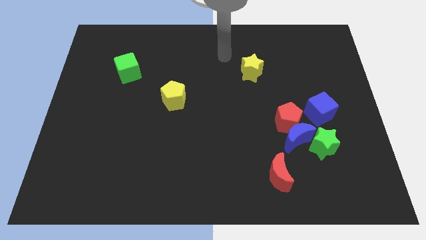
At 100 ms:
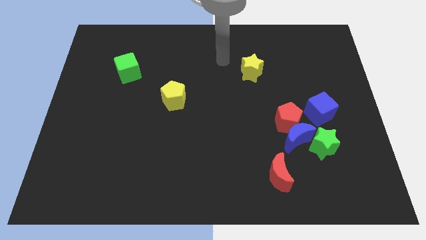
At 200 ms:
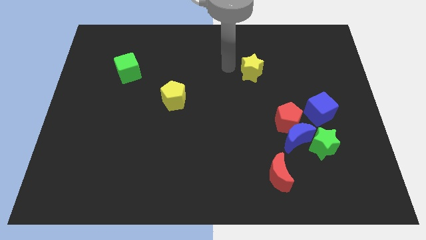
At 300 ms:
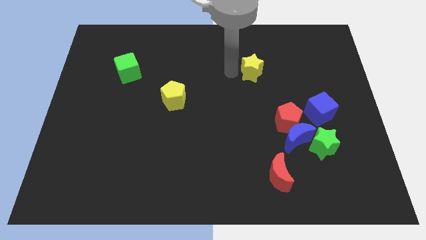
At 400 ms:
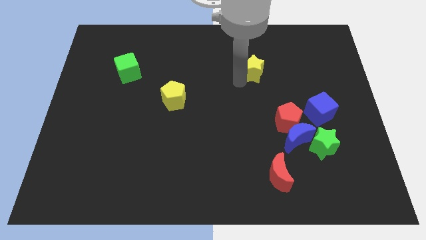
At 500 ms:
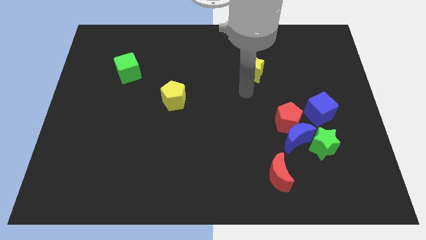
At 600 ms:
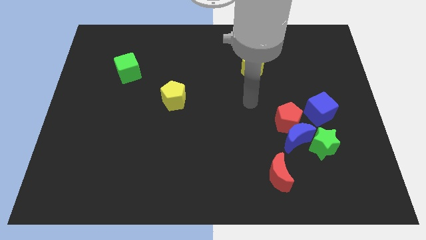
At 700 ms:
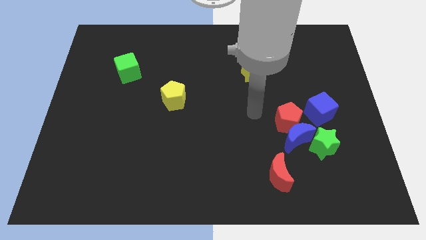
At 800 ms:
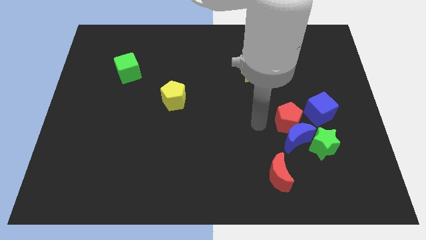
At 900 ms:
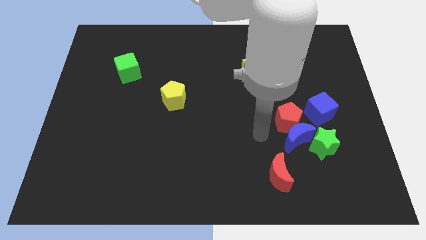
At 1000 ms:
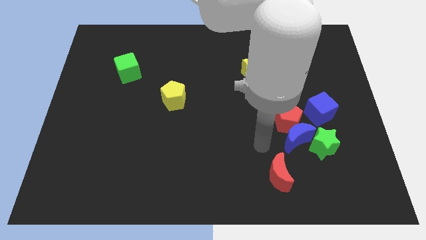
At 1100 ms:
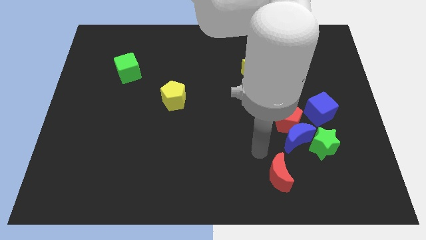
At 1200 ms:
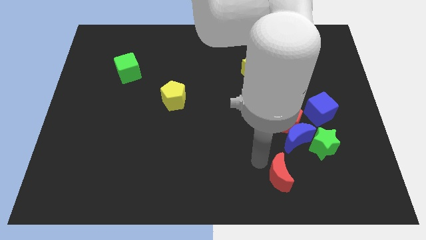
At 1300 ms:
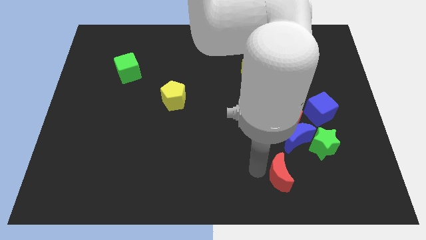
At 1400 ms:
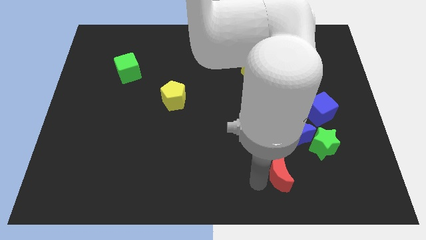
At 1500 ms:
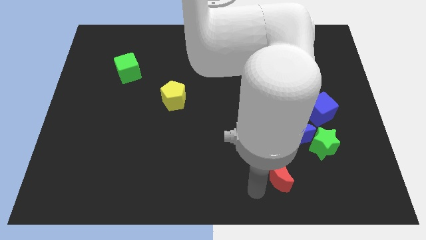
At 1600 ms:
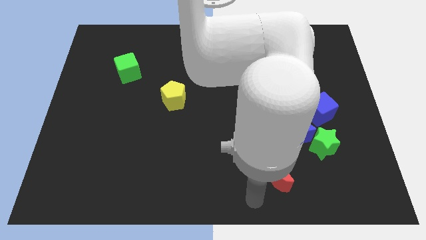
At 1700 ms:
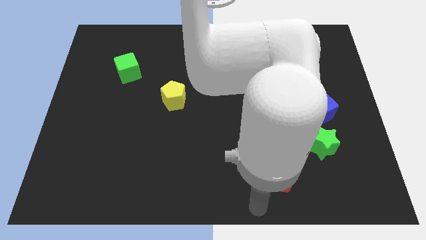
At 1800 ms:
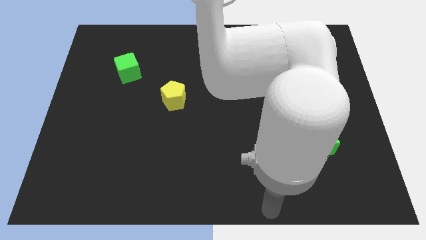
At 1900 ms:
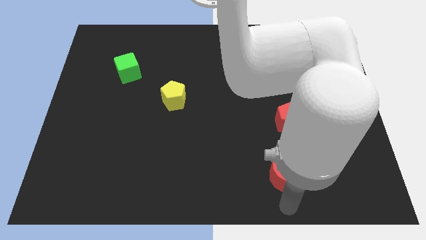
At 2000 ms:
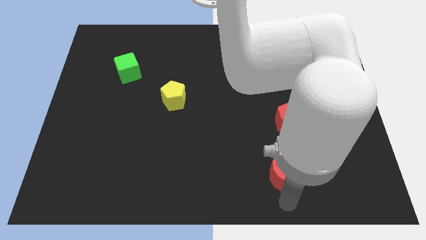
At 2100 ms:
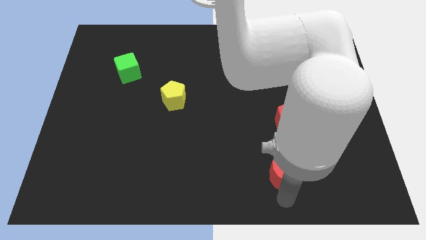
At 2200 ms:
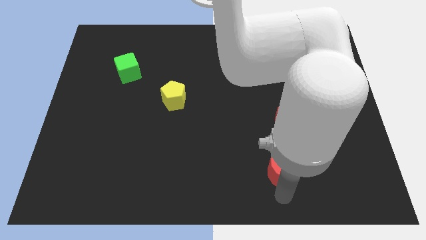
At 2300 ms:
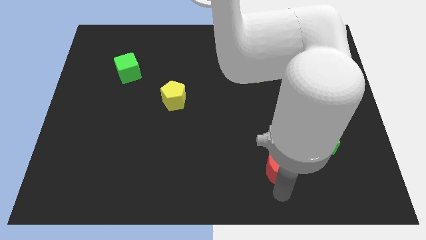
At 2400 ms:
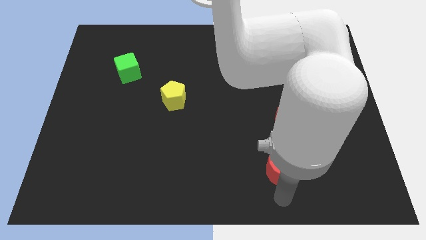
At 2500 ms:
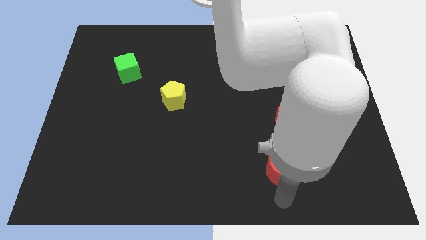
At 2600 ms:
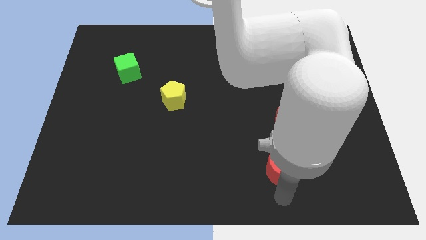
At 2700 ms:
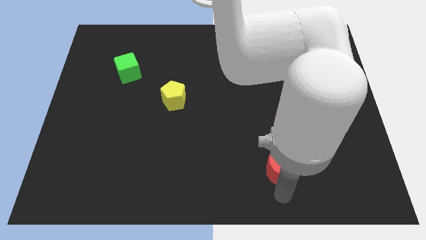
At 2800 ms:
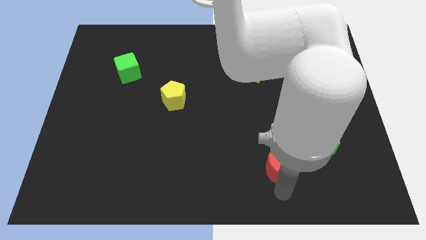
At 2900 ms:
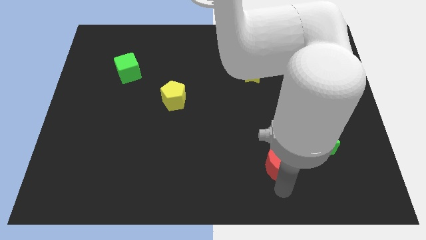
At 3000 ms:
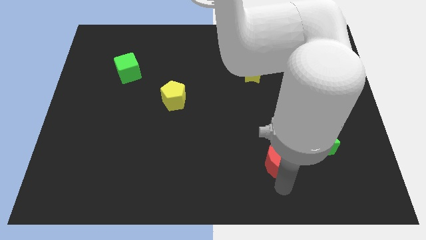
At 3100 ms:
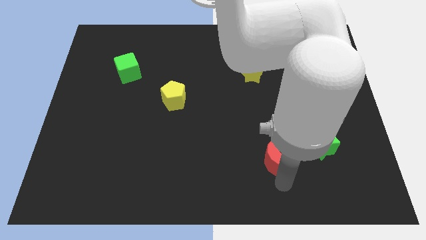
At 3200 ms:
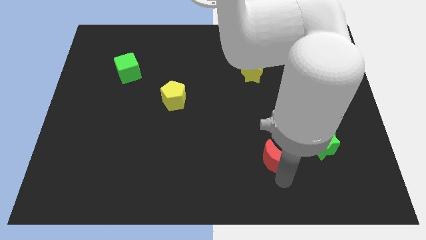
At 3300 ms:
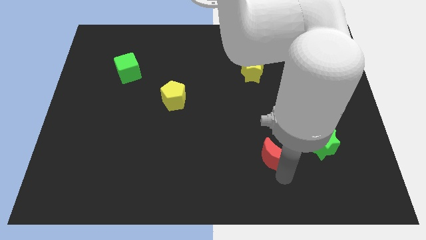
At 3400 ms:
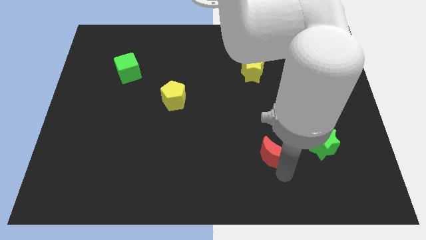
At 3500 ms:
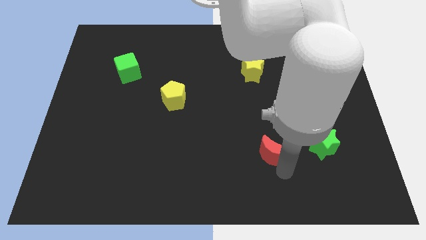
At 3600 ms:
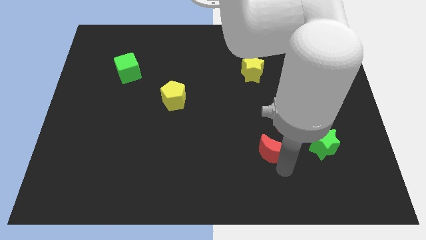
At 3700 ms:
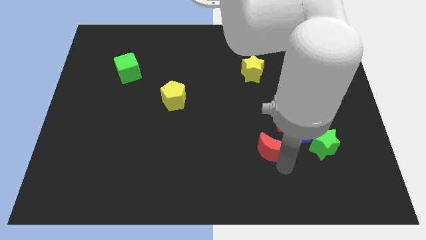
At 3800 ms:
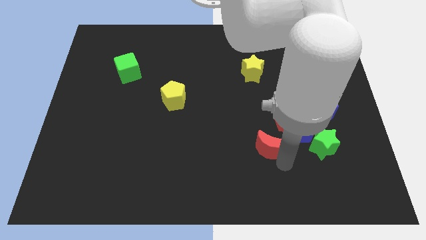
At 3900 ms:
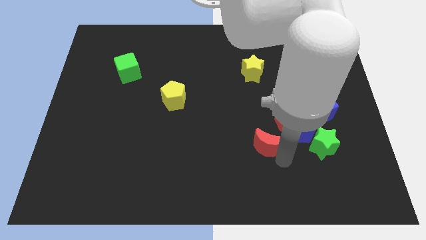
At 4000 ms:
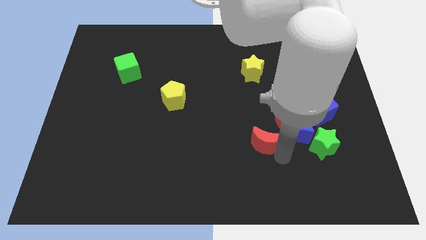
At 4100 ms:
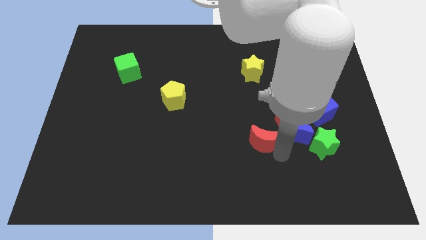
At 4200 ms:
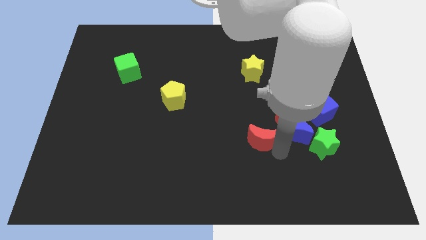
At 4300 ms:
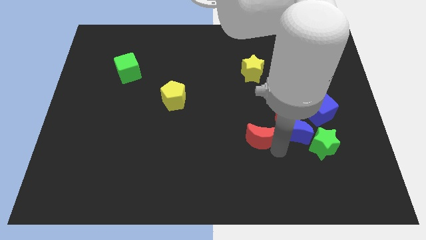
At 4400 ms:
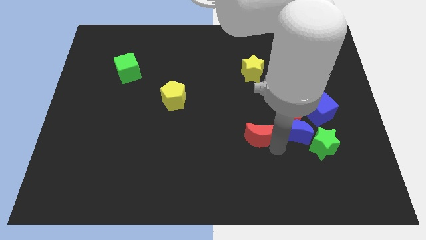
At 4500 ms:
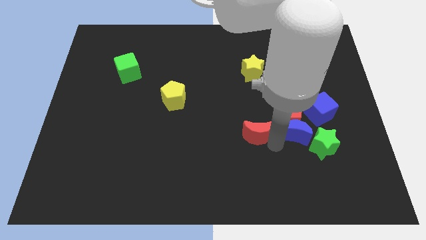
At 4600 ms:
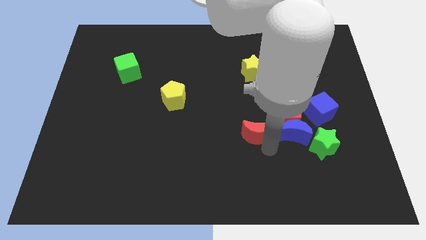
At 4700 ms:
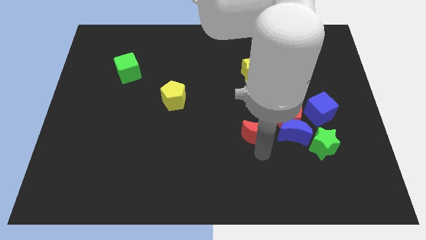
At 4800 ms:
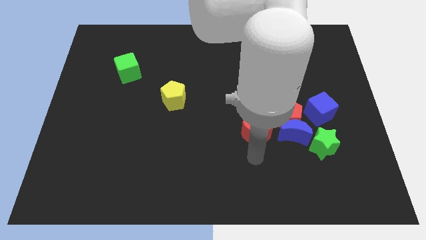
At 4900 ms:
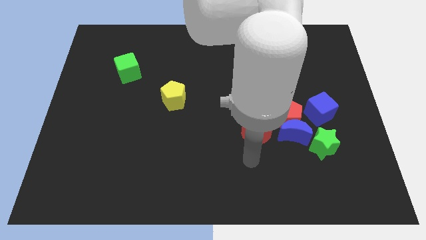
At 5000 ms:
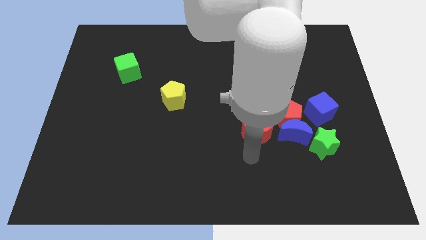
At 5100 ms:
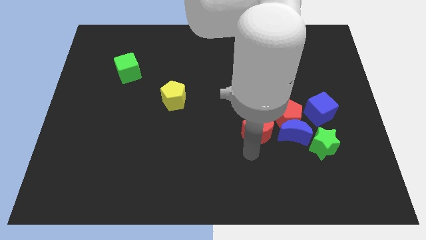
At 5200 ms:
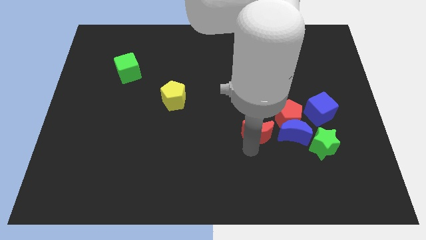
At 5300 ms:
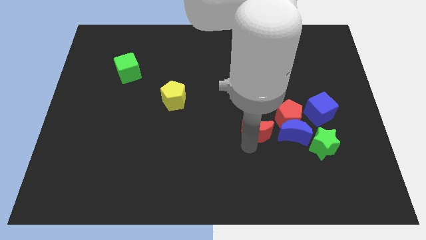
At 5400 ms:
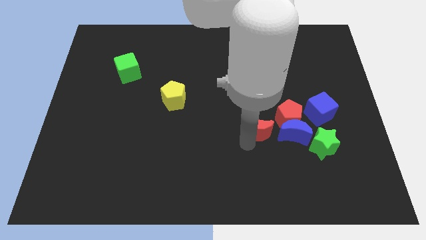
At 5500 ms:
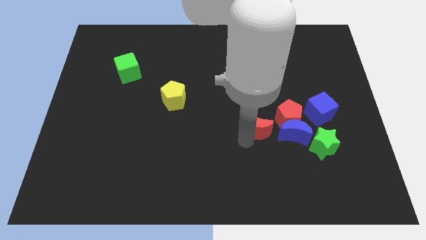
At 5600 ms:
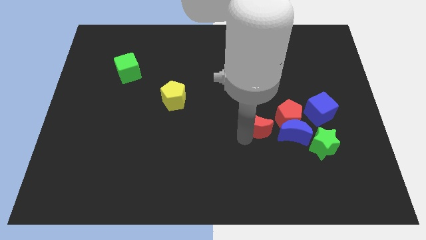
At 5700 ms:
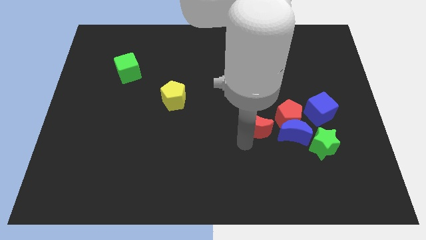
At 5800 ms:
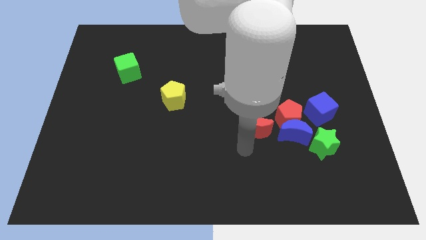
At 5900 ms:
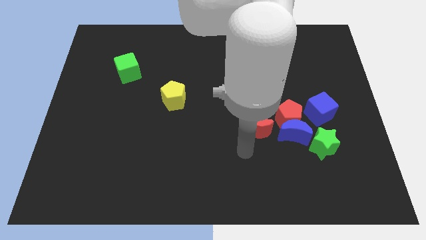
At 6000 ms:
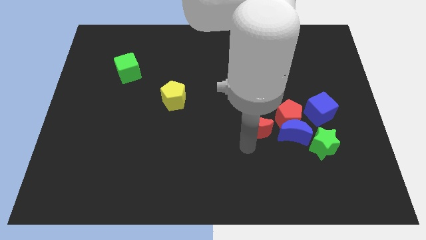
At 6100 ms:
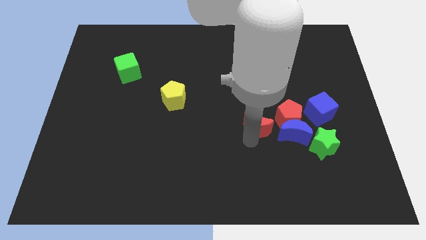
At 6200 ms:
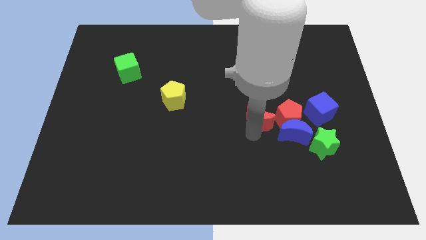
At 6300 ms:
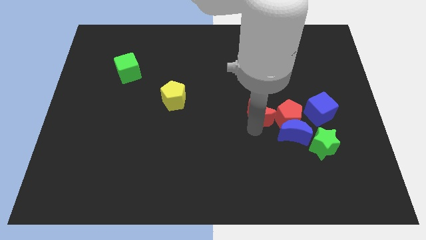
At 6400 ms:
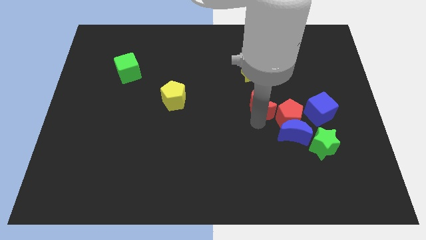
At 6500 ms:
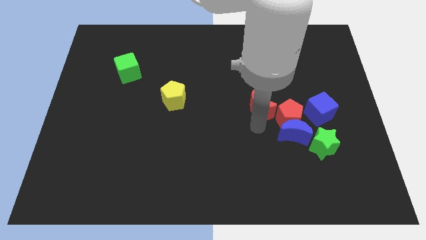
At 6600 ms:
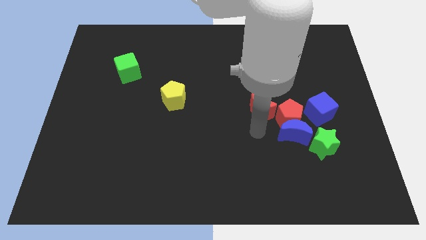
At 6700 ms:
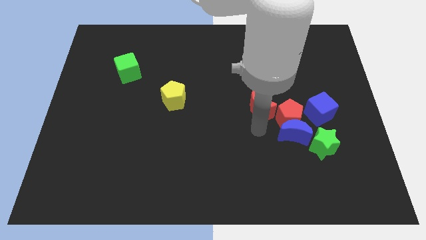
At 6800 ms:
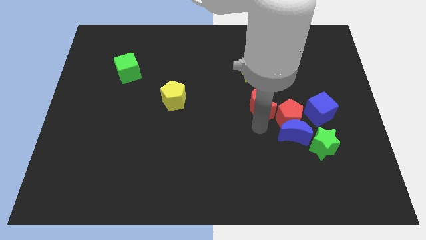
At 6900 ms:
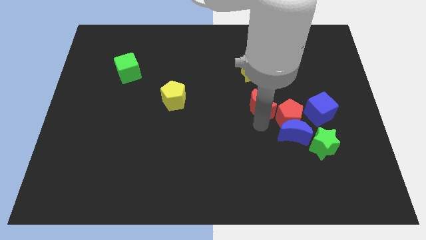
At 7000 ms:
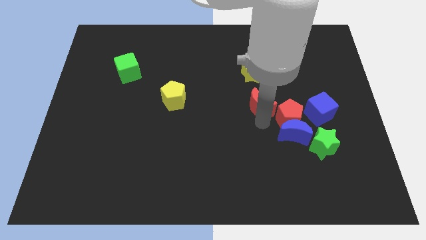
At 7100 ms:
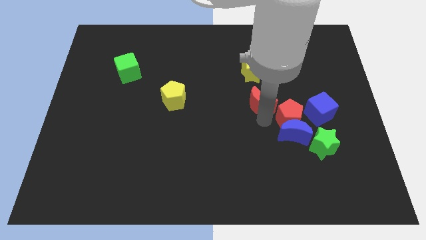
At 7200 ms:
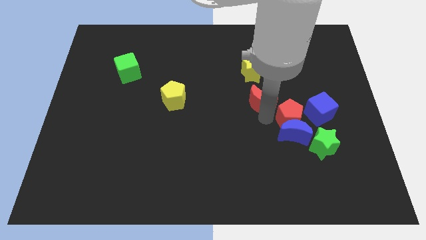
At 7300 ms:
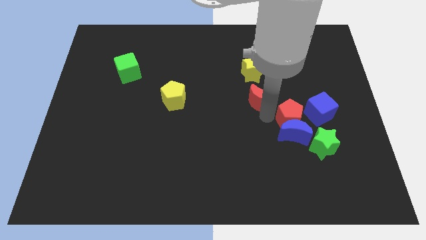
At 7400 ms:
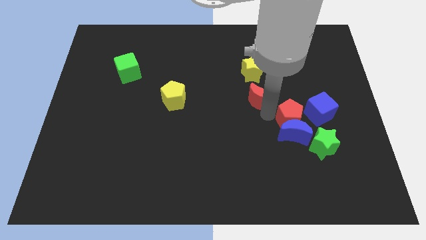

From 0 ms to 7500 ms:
move the red moon upwards

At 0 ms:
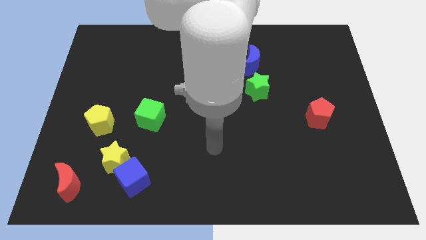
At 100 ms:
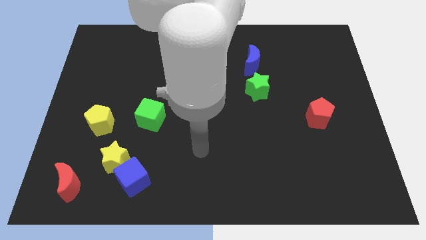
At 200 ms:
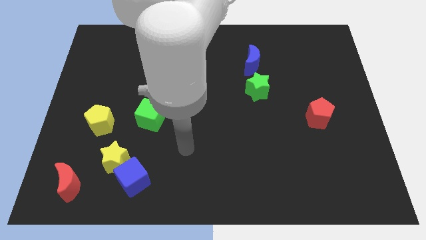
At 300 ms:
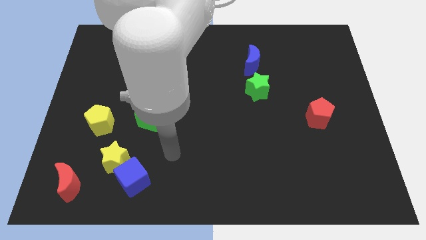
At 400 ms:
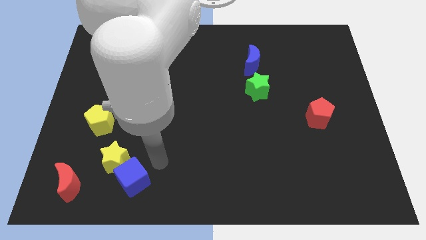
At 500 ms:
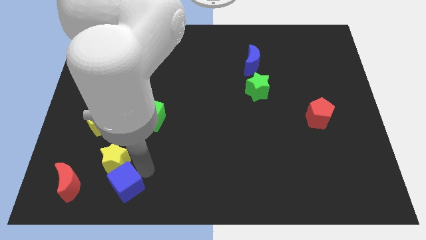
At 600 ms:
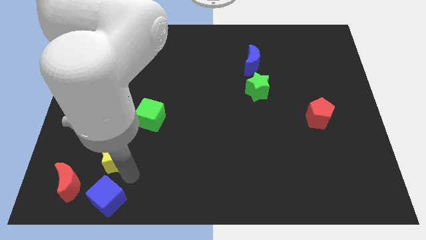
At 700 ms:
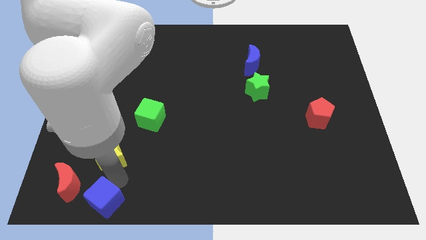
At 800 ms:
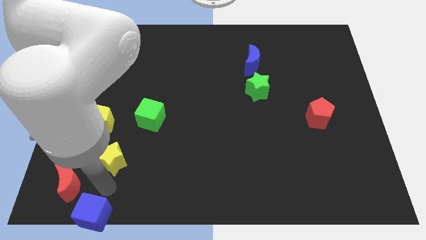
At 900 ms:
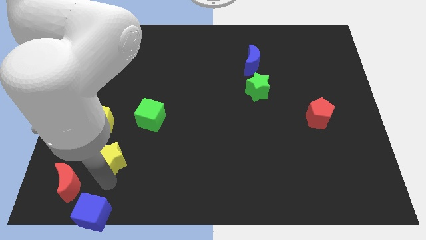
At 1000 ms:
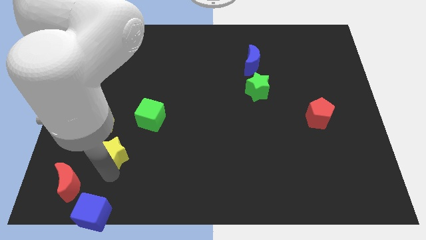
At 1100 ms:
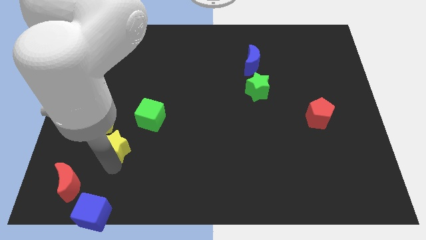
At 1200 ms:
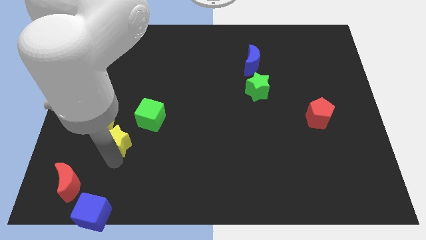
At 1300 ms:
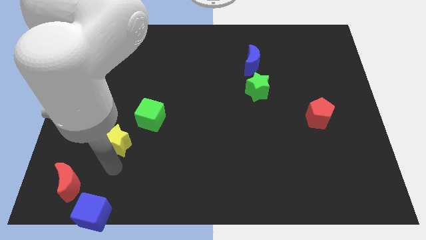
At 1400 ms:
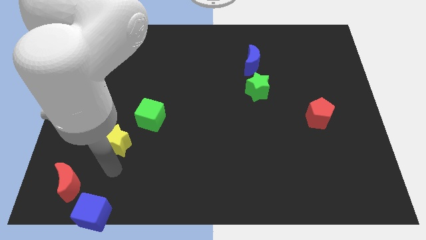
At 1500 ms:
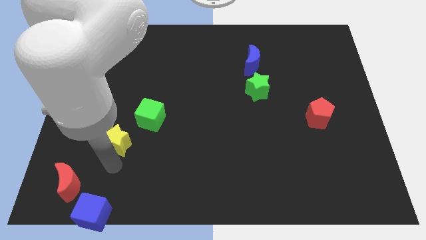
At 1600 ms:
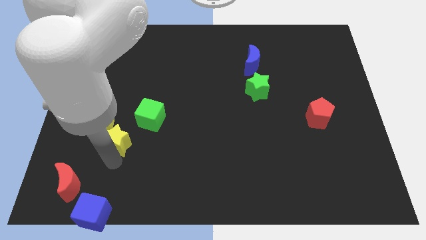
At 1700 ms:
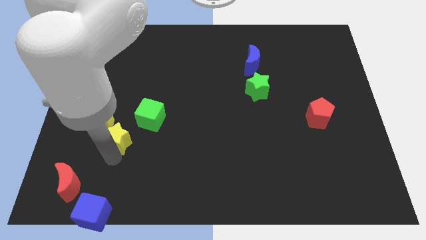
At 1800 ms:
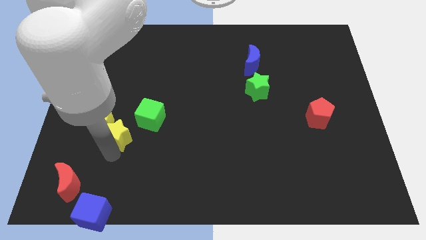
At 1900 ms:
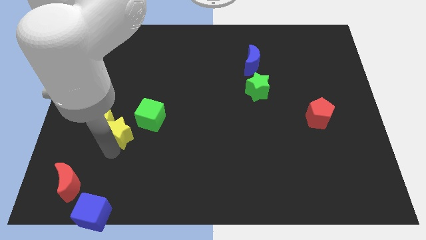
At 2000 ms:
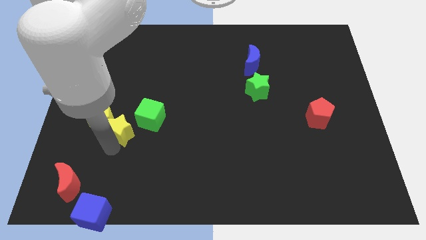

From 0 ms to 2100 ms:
push the yellow star up a bit
